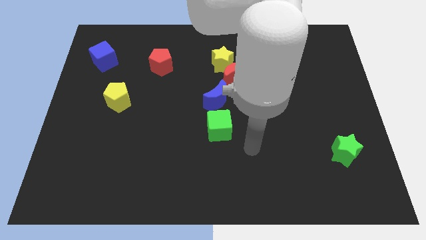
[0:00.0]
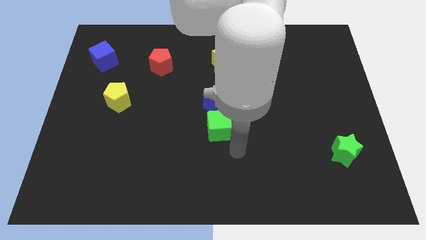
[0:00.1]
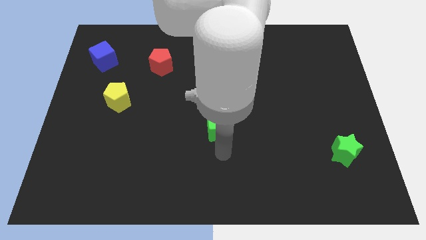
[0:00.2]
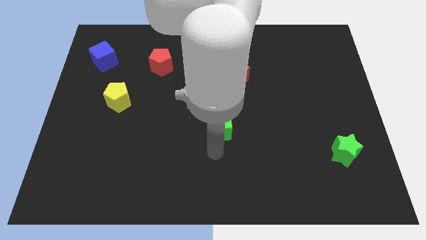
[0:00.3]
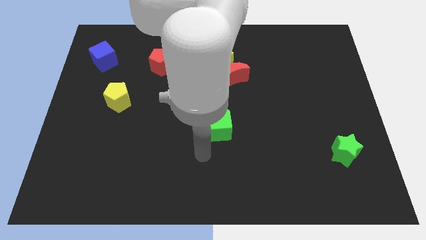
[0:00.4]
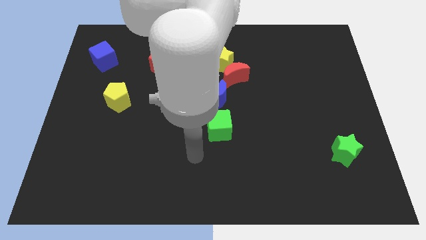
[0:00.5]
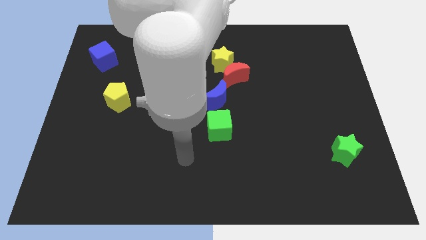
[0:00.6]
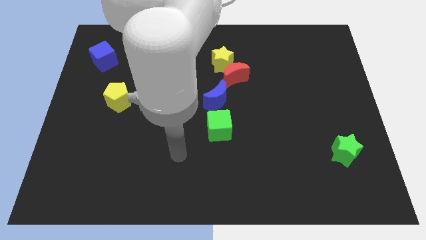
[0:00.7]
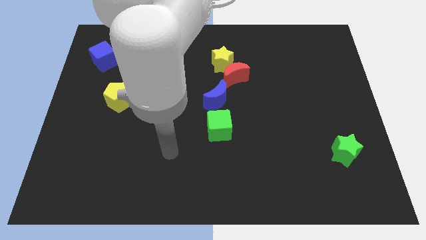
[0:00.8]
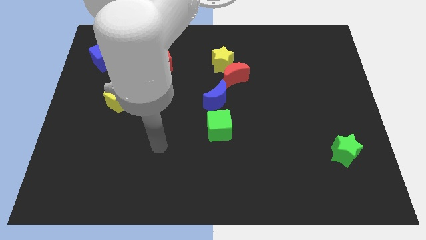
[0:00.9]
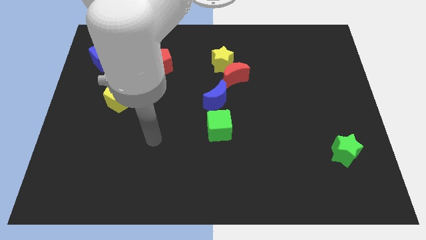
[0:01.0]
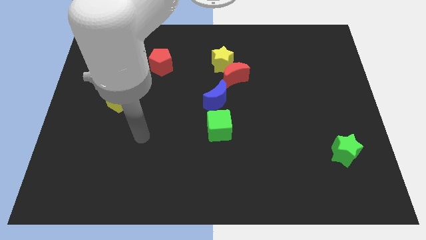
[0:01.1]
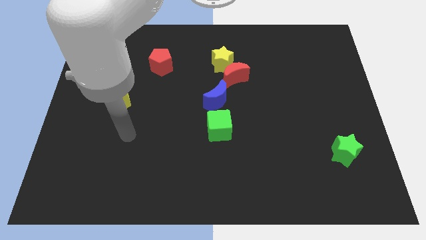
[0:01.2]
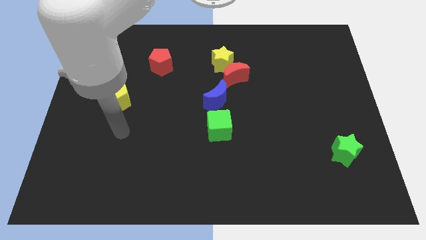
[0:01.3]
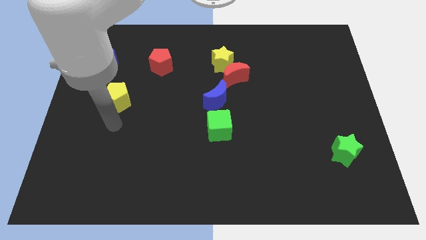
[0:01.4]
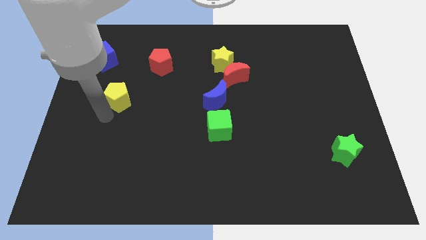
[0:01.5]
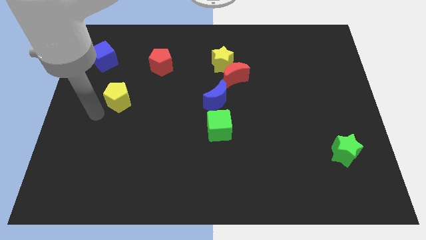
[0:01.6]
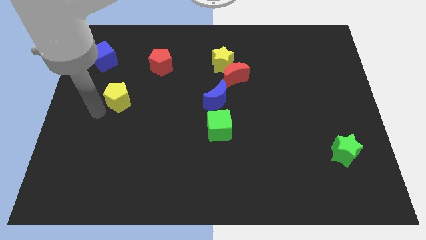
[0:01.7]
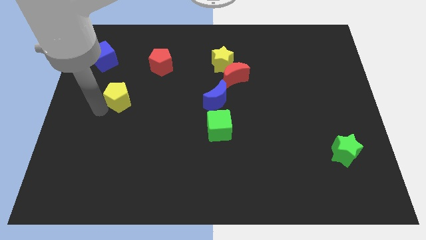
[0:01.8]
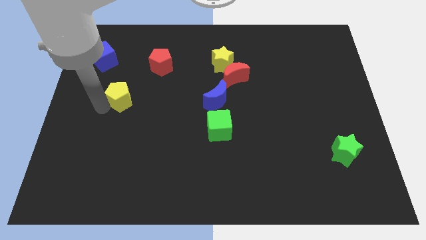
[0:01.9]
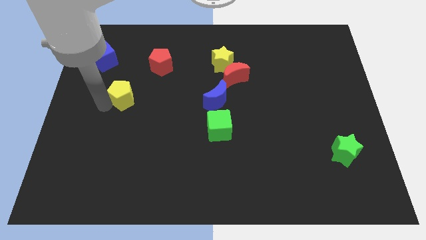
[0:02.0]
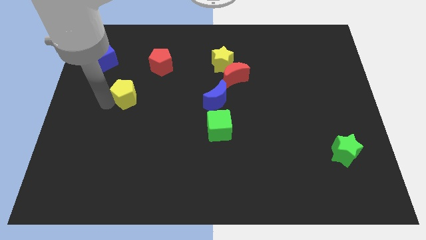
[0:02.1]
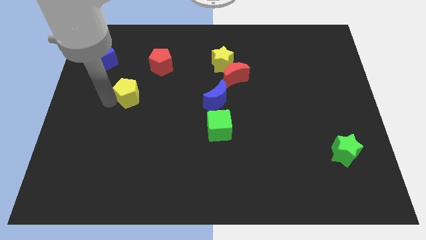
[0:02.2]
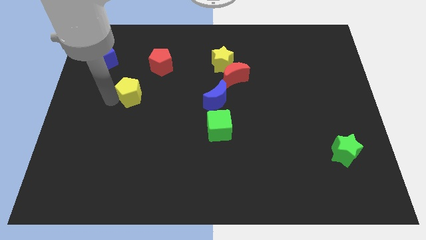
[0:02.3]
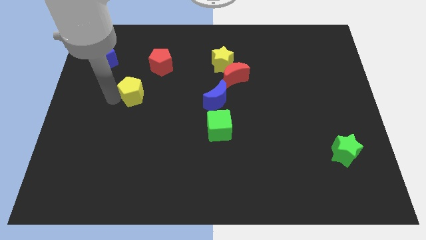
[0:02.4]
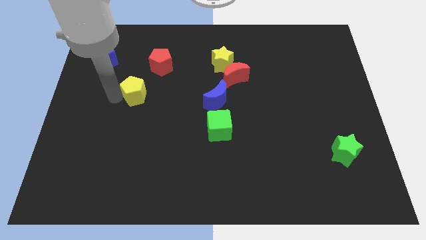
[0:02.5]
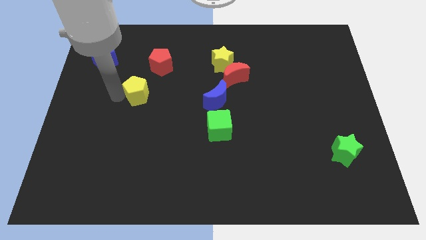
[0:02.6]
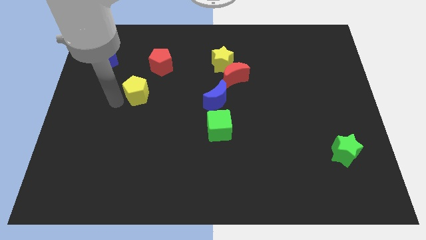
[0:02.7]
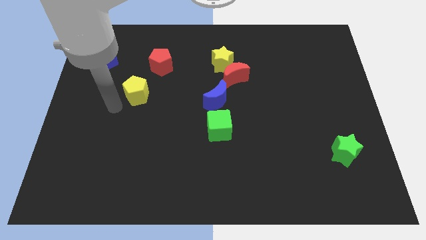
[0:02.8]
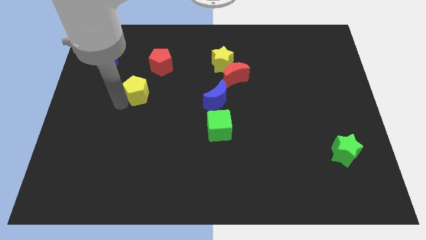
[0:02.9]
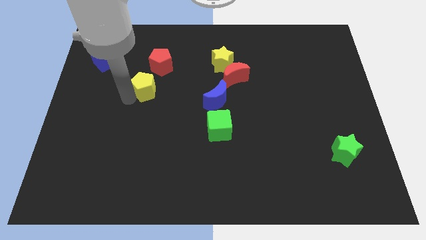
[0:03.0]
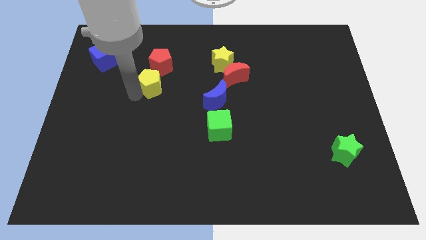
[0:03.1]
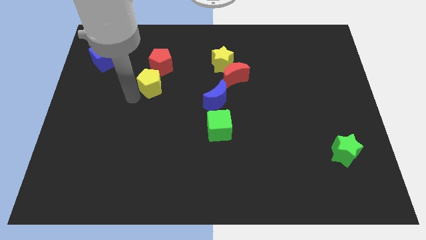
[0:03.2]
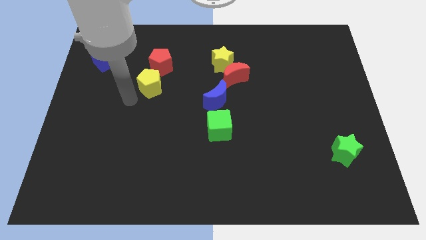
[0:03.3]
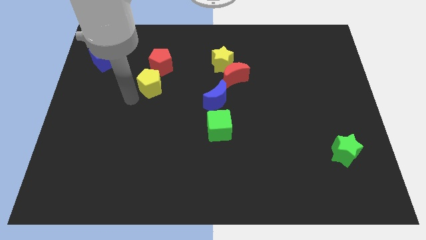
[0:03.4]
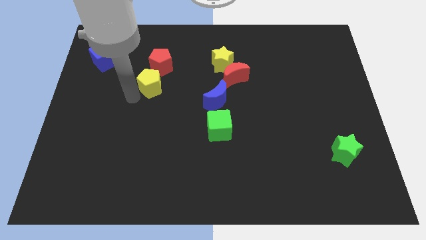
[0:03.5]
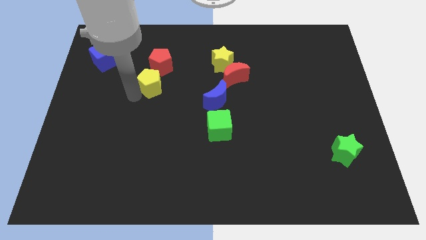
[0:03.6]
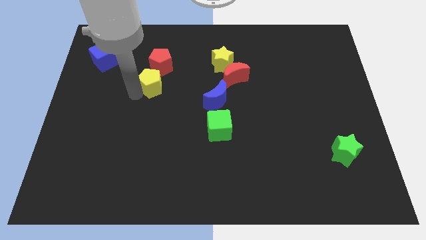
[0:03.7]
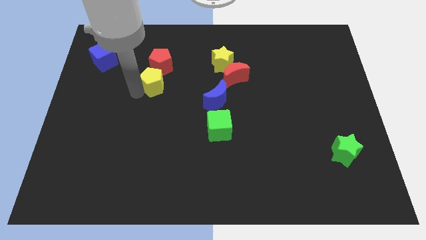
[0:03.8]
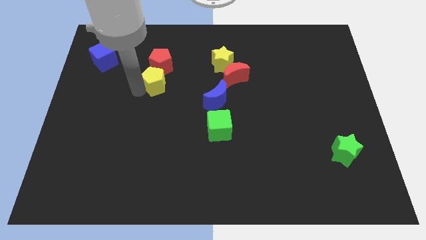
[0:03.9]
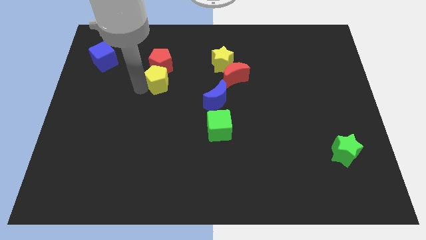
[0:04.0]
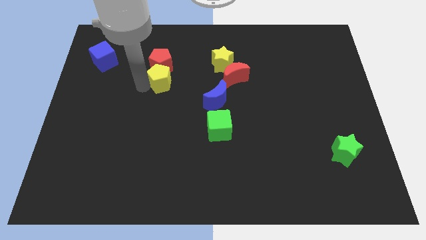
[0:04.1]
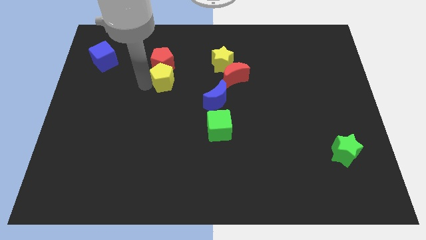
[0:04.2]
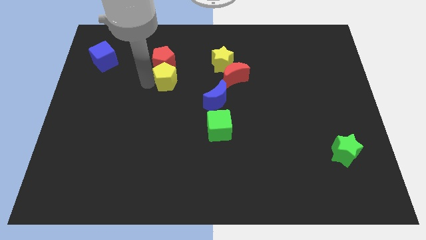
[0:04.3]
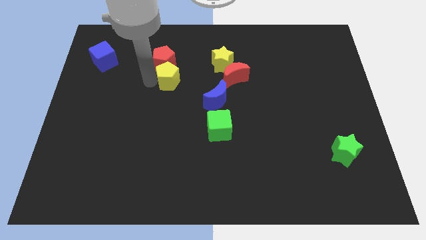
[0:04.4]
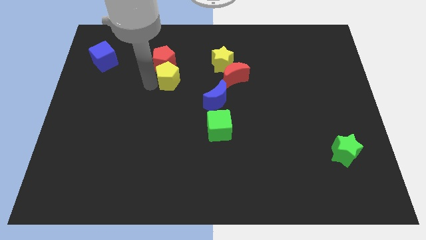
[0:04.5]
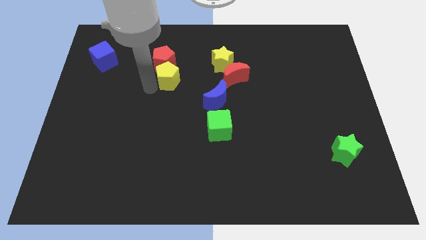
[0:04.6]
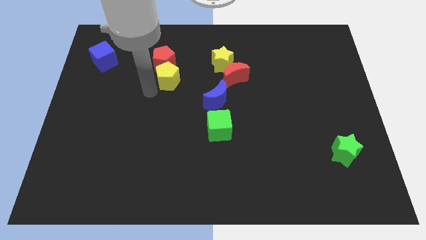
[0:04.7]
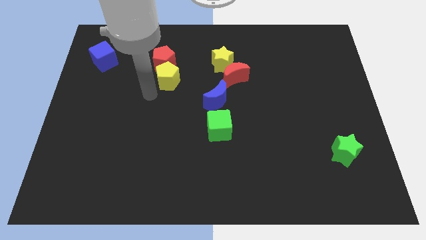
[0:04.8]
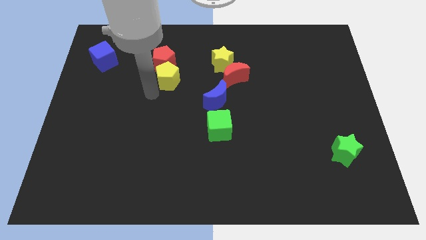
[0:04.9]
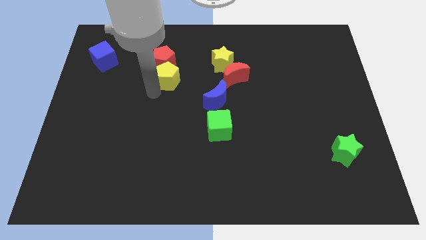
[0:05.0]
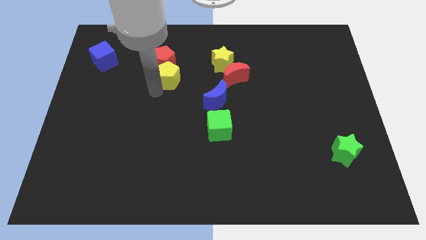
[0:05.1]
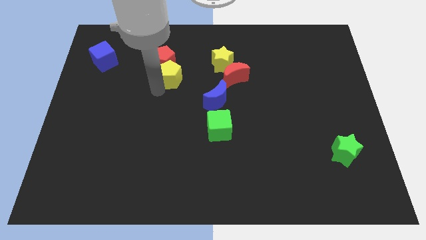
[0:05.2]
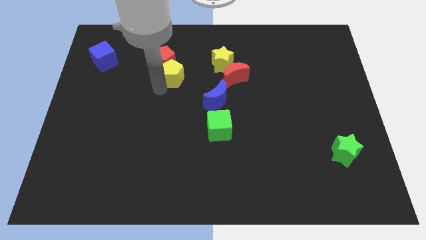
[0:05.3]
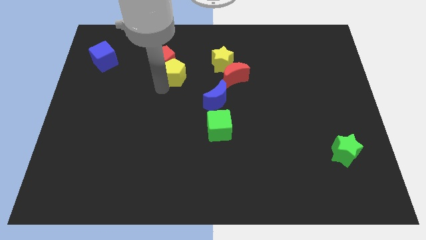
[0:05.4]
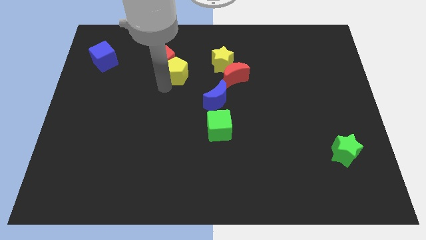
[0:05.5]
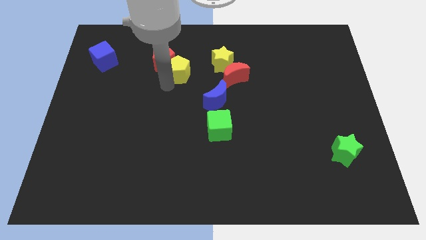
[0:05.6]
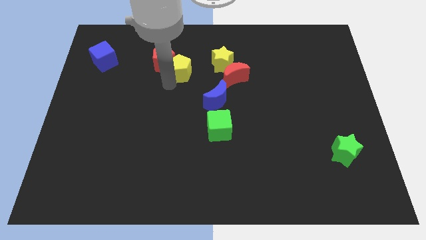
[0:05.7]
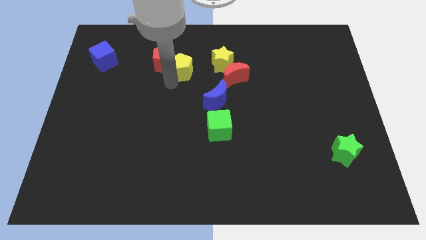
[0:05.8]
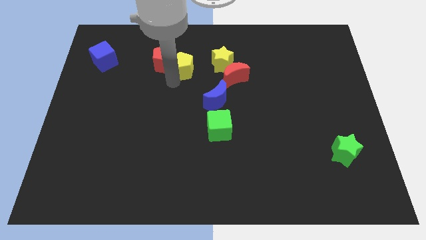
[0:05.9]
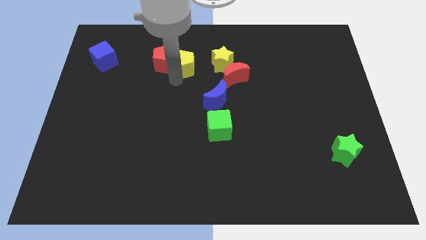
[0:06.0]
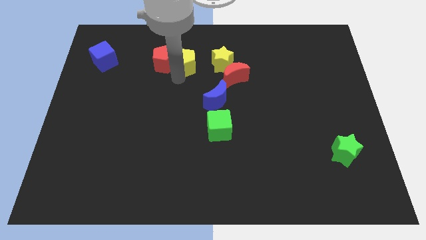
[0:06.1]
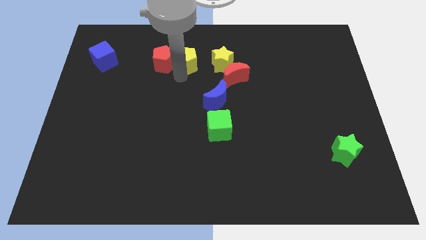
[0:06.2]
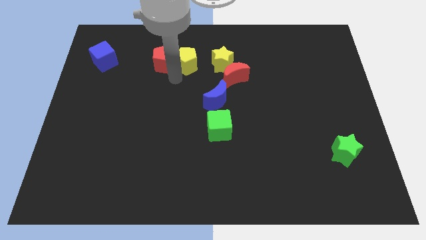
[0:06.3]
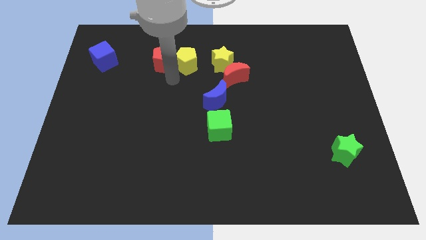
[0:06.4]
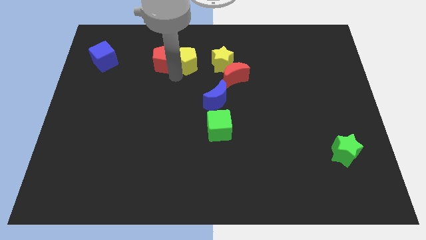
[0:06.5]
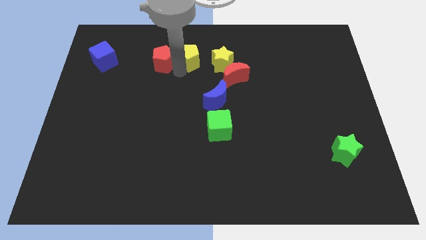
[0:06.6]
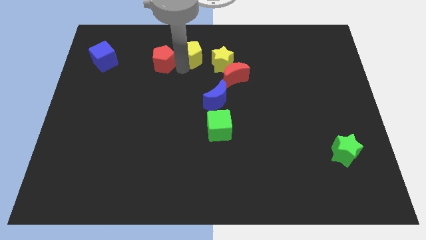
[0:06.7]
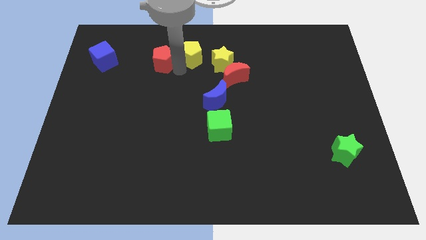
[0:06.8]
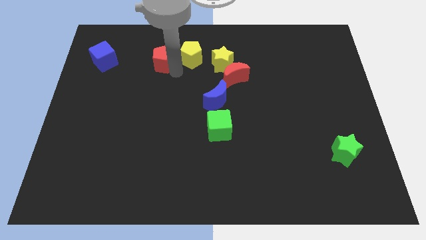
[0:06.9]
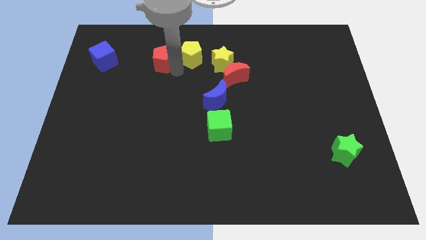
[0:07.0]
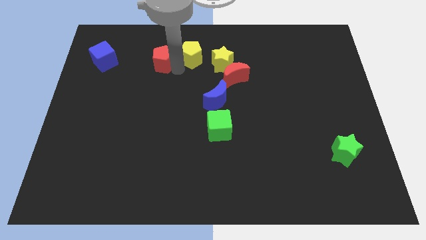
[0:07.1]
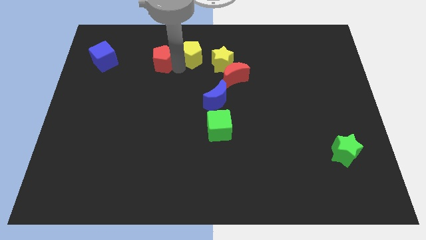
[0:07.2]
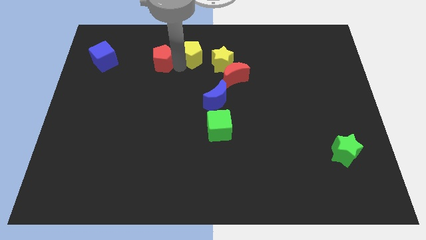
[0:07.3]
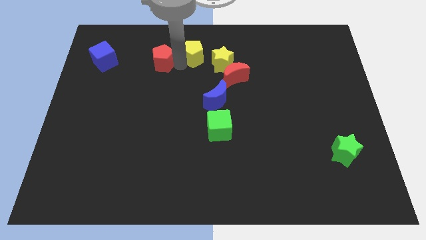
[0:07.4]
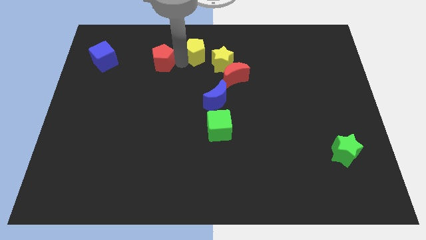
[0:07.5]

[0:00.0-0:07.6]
push the yellow pentagon to the towards your base
